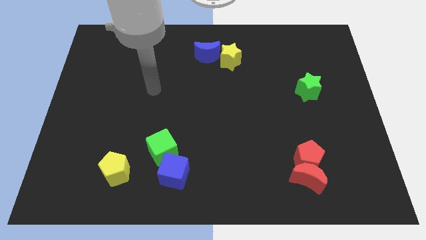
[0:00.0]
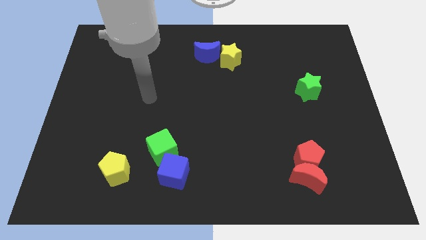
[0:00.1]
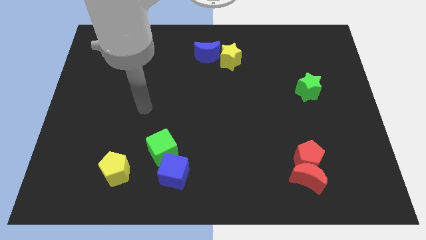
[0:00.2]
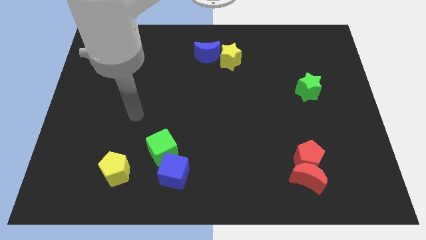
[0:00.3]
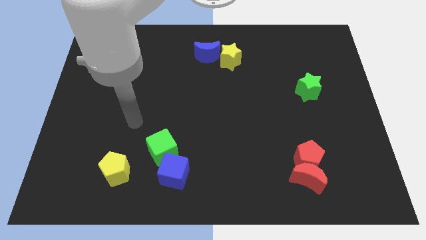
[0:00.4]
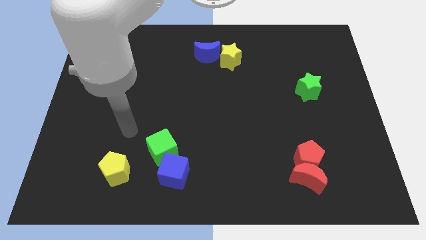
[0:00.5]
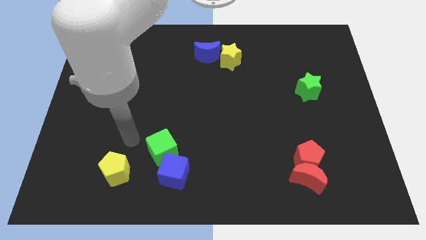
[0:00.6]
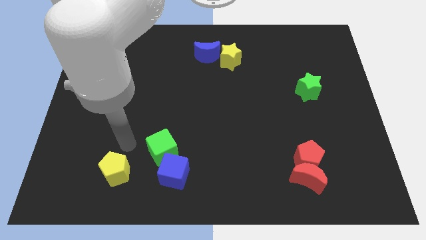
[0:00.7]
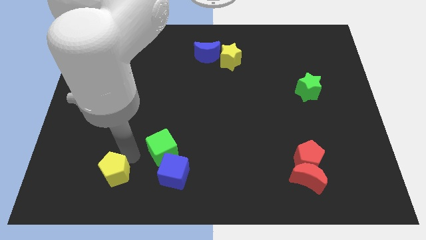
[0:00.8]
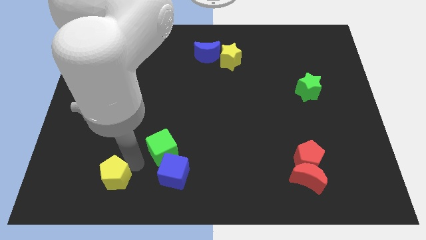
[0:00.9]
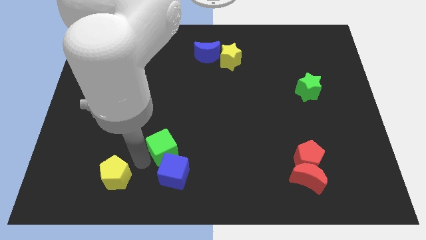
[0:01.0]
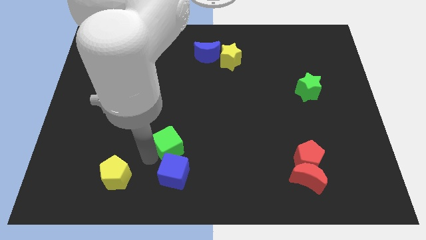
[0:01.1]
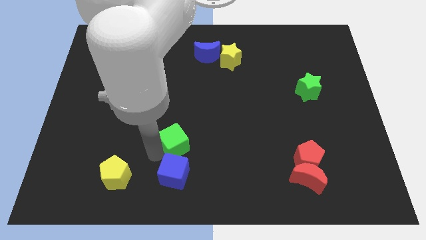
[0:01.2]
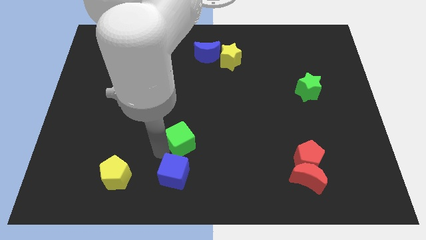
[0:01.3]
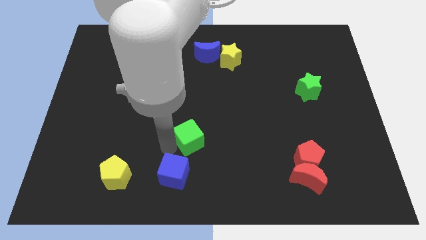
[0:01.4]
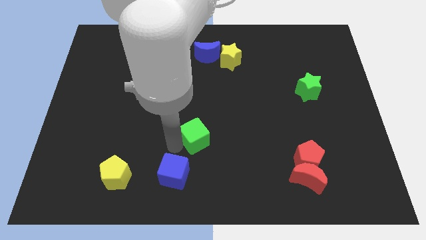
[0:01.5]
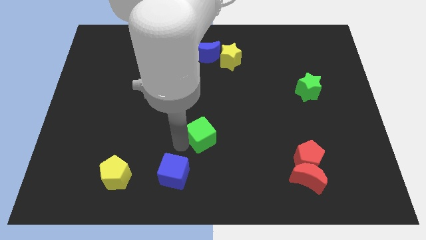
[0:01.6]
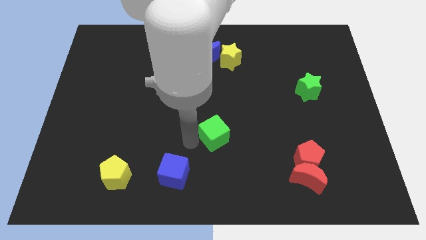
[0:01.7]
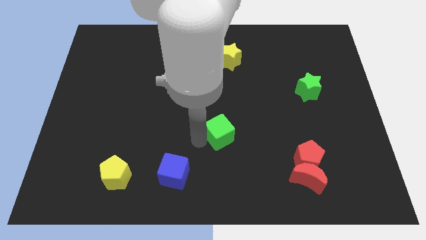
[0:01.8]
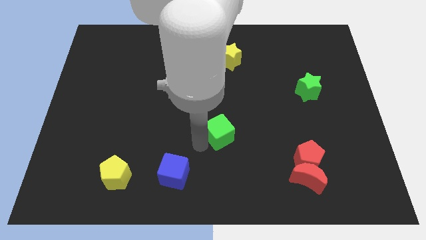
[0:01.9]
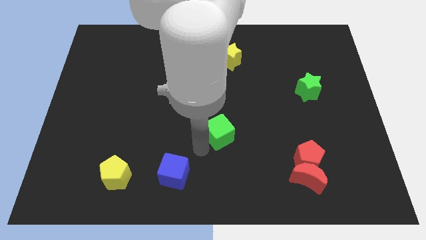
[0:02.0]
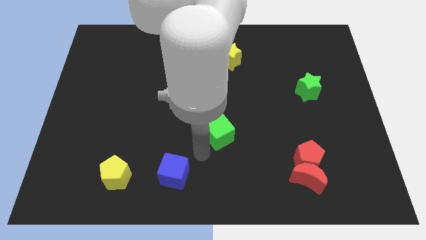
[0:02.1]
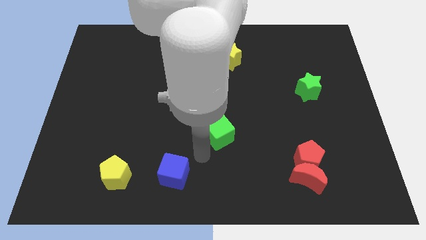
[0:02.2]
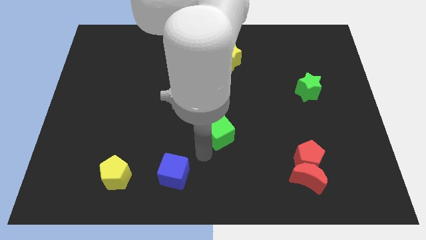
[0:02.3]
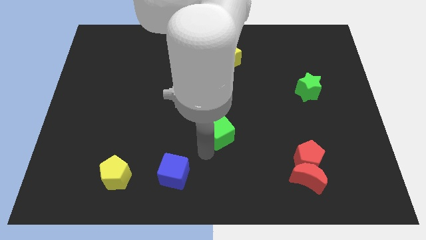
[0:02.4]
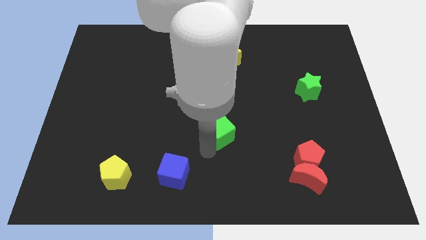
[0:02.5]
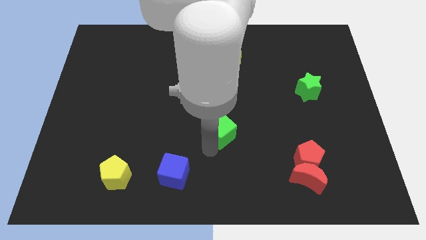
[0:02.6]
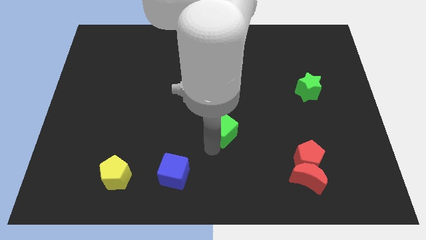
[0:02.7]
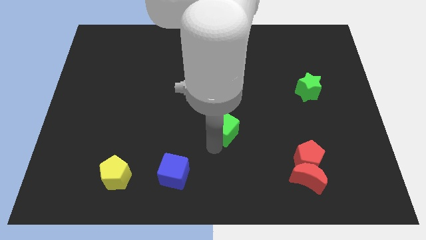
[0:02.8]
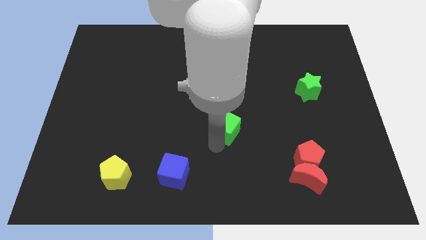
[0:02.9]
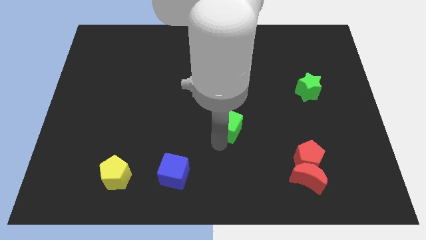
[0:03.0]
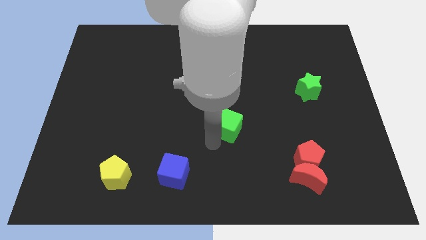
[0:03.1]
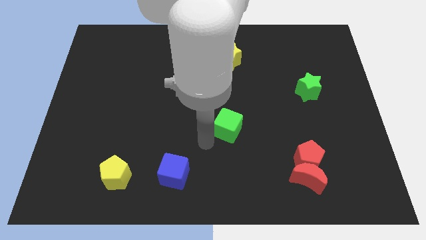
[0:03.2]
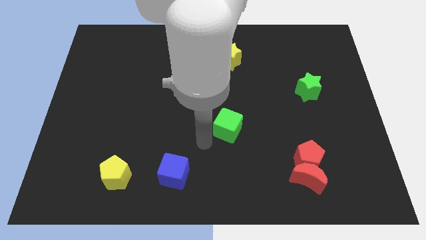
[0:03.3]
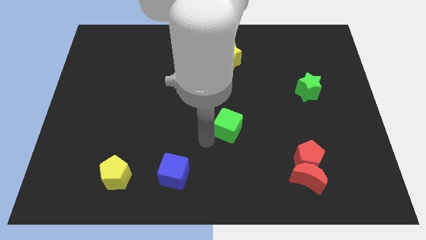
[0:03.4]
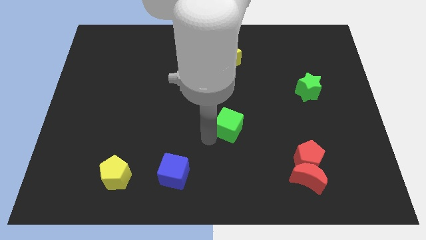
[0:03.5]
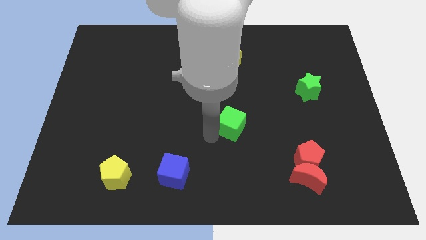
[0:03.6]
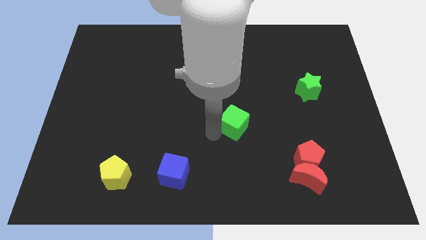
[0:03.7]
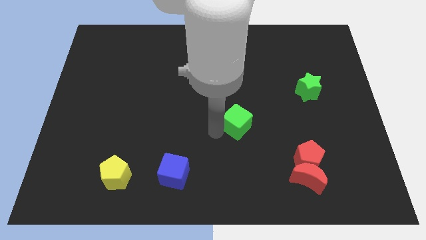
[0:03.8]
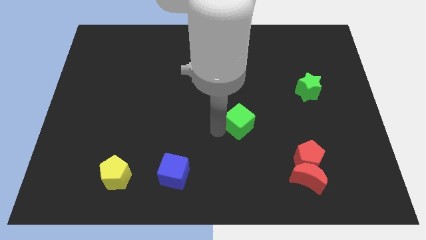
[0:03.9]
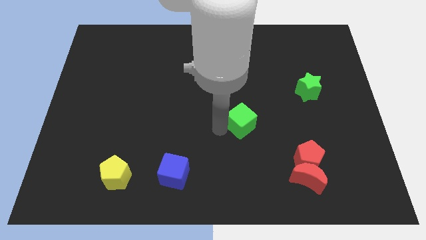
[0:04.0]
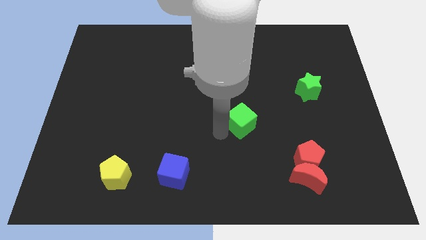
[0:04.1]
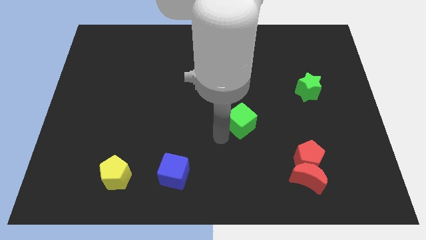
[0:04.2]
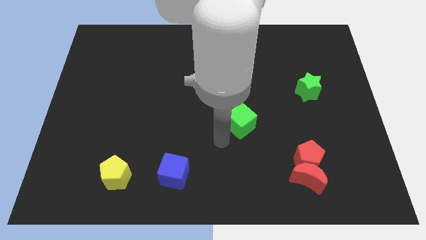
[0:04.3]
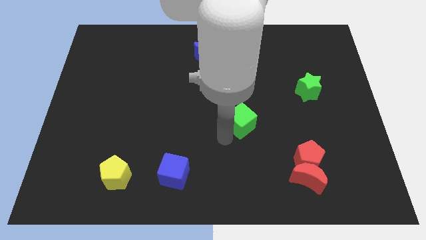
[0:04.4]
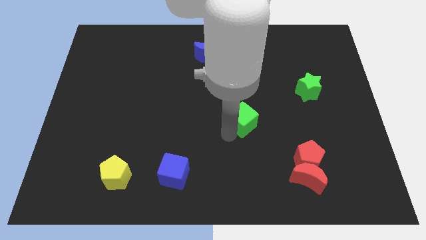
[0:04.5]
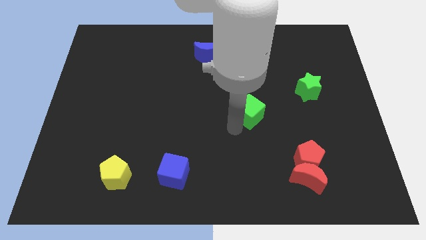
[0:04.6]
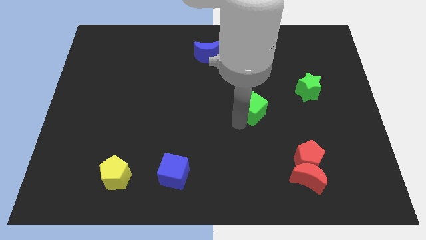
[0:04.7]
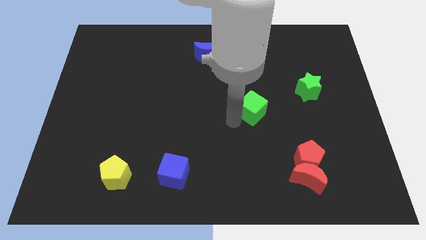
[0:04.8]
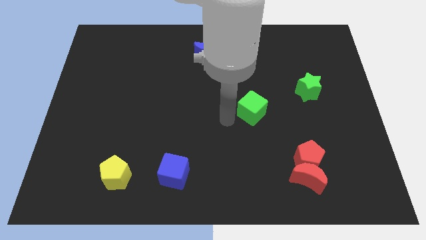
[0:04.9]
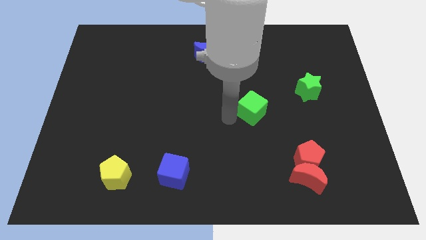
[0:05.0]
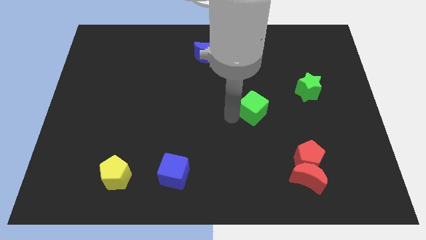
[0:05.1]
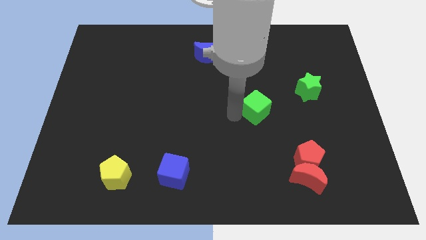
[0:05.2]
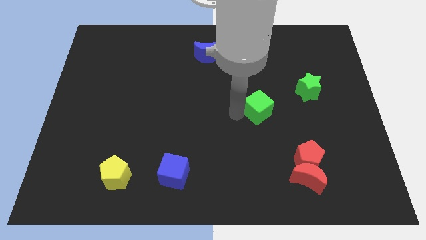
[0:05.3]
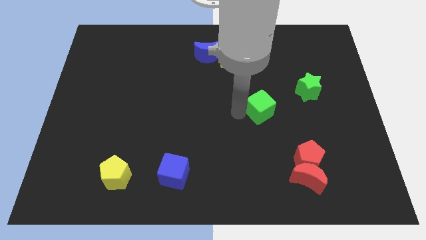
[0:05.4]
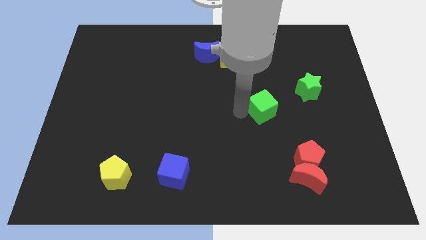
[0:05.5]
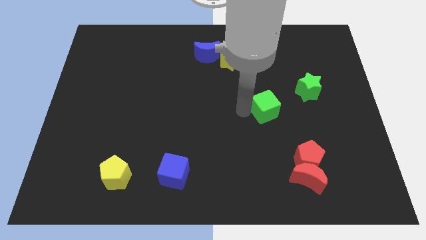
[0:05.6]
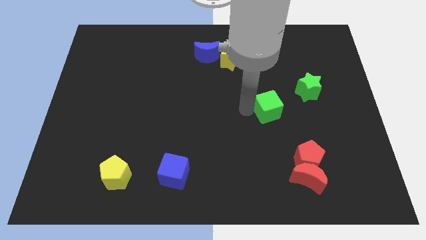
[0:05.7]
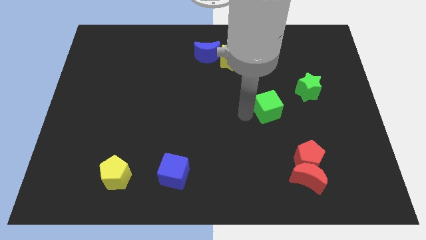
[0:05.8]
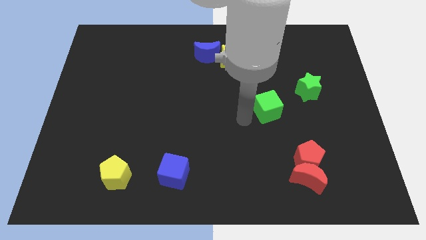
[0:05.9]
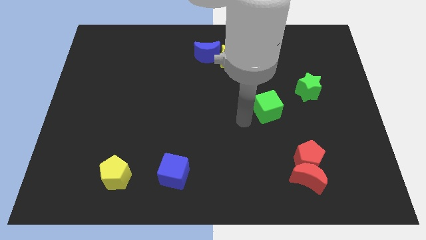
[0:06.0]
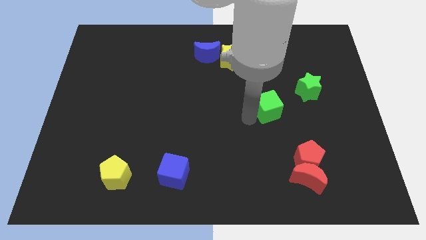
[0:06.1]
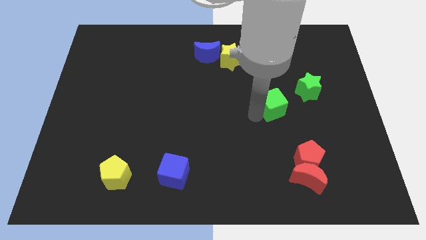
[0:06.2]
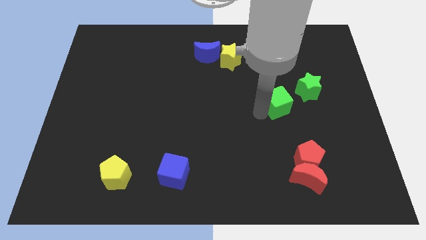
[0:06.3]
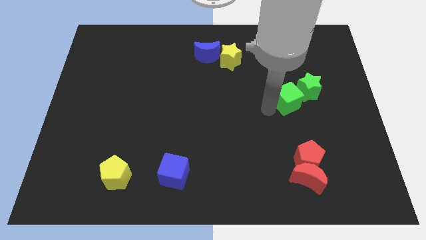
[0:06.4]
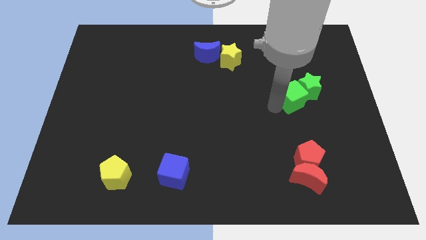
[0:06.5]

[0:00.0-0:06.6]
put the green cube close to the green star
